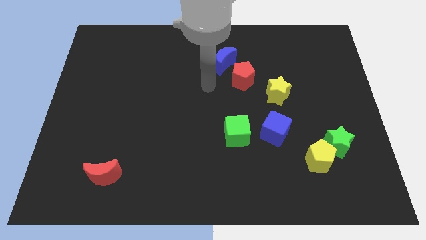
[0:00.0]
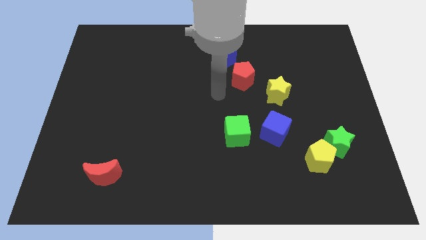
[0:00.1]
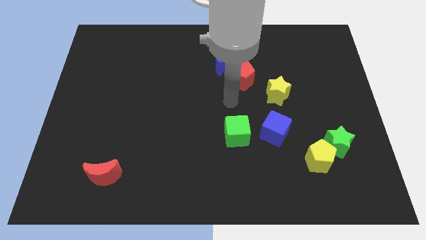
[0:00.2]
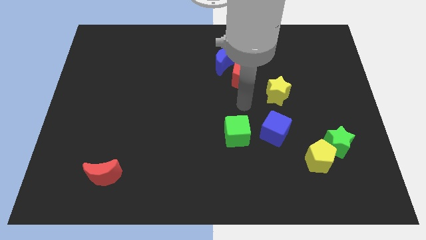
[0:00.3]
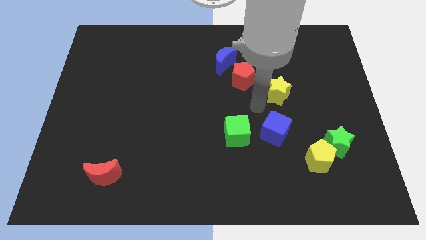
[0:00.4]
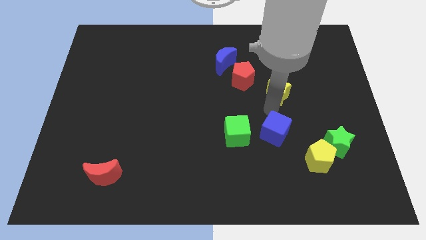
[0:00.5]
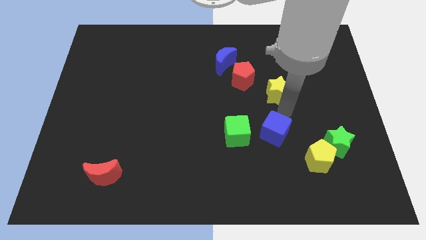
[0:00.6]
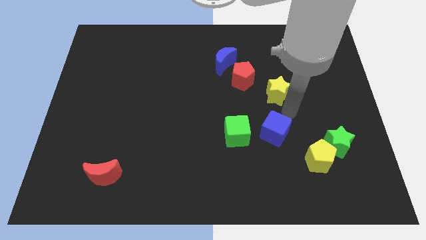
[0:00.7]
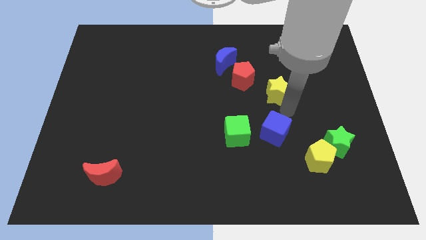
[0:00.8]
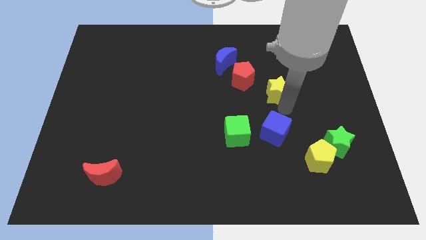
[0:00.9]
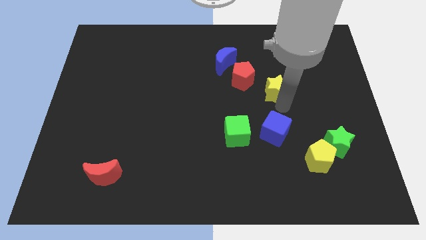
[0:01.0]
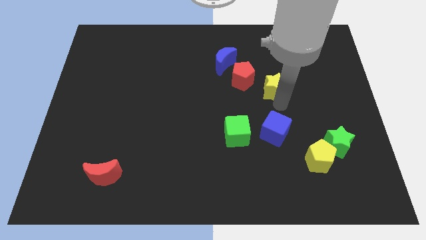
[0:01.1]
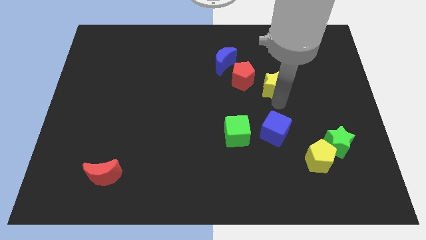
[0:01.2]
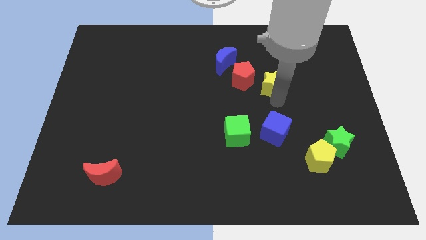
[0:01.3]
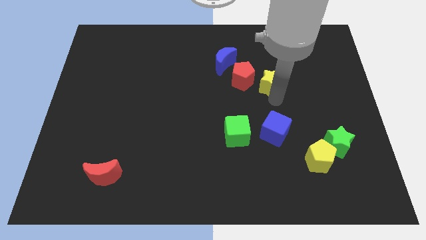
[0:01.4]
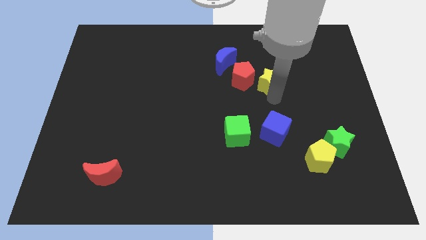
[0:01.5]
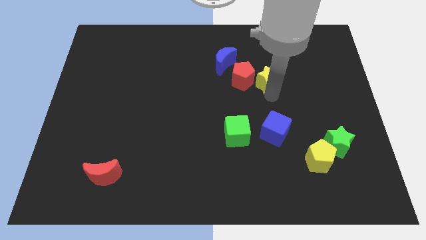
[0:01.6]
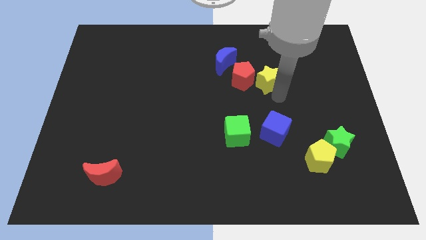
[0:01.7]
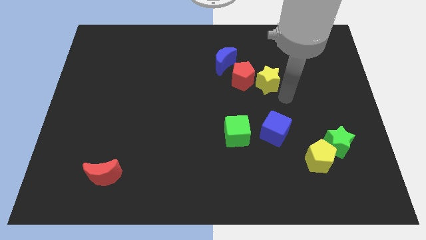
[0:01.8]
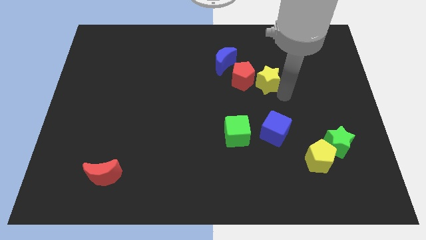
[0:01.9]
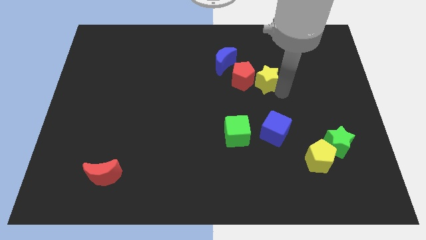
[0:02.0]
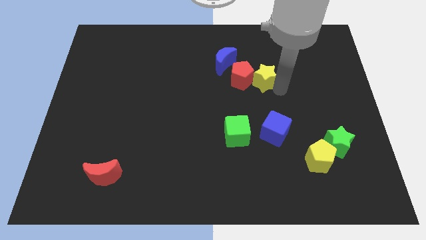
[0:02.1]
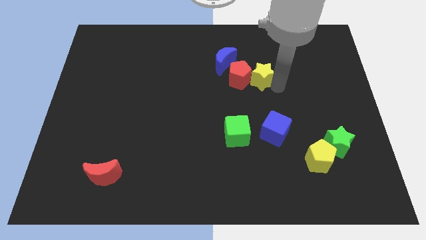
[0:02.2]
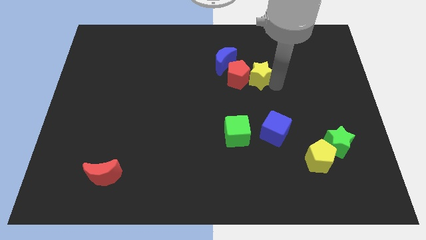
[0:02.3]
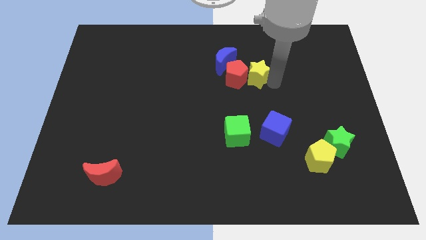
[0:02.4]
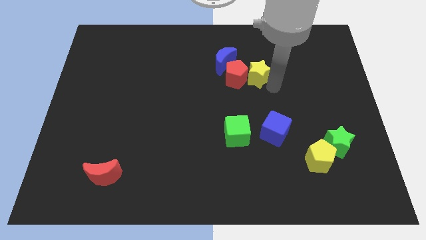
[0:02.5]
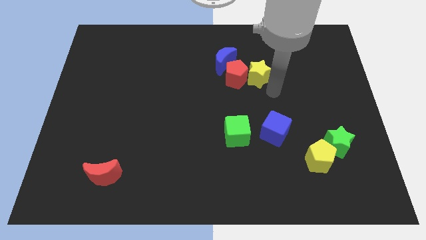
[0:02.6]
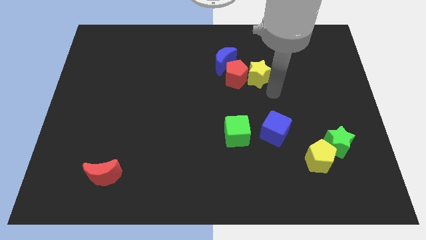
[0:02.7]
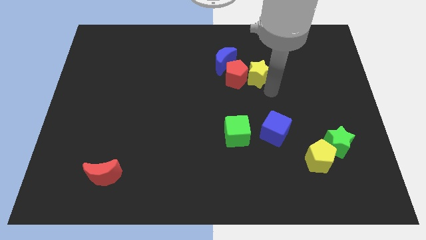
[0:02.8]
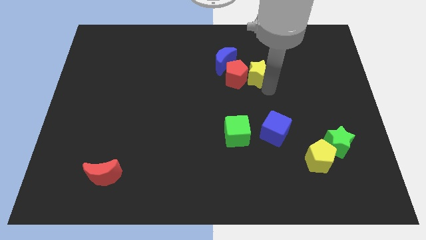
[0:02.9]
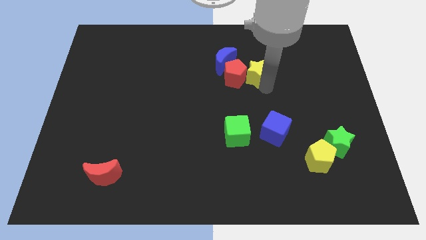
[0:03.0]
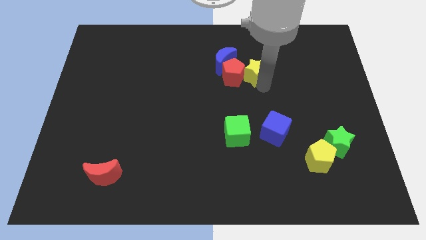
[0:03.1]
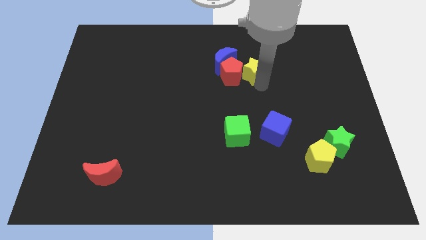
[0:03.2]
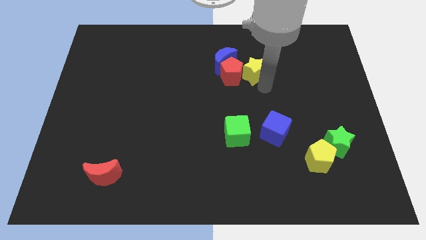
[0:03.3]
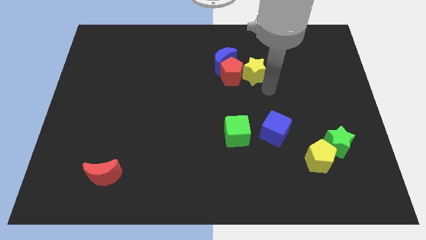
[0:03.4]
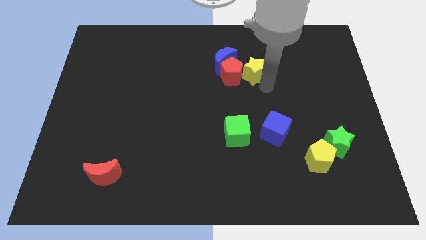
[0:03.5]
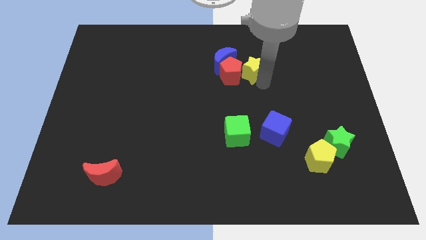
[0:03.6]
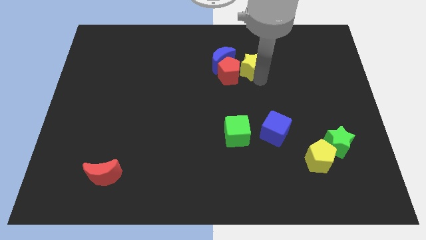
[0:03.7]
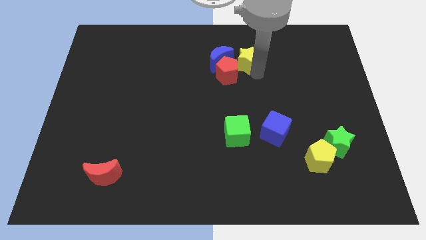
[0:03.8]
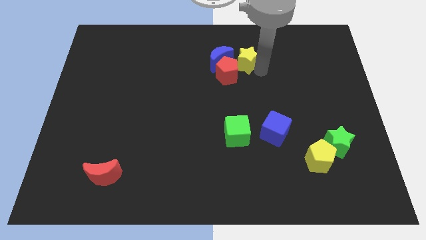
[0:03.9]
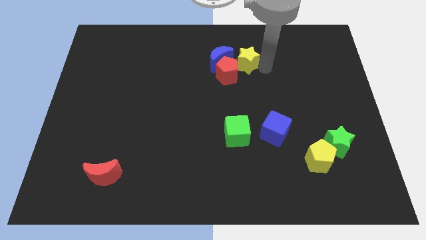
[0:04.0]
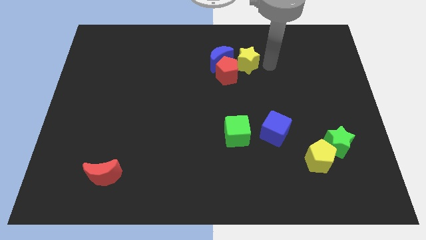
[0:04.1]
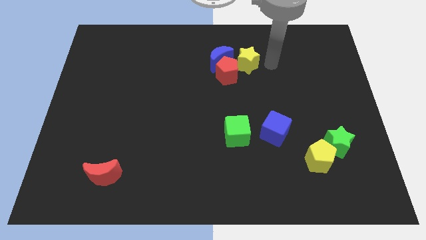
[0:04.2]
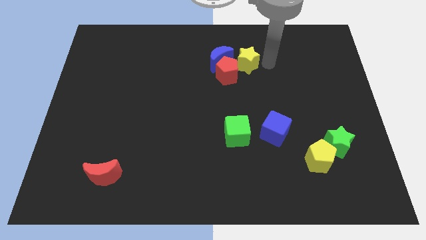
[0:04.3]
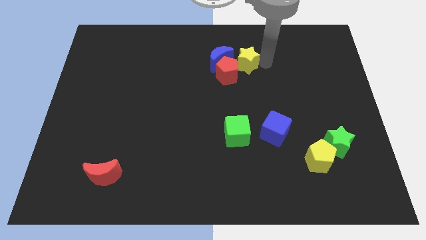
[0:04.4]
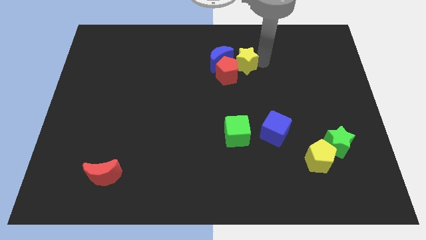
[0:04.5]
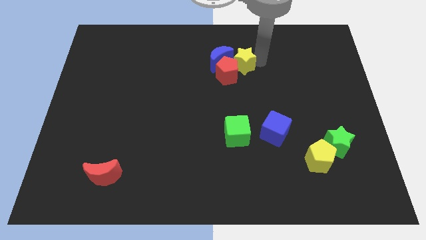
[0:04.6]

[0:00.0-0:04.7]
move the yellow star close to the blue moon

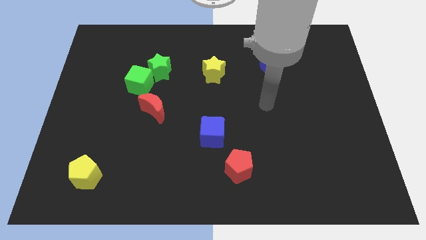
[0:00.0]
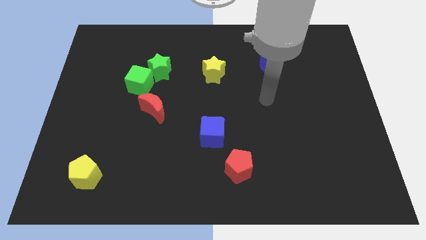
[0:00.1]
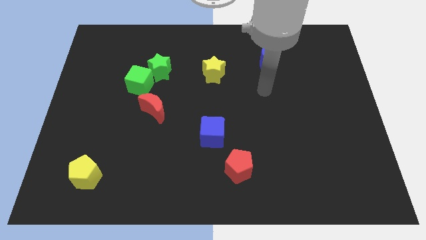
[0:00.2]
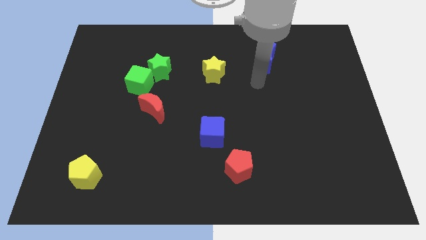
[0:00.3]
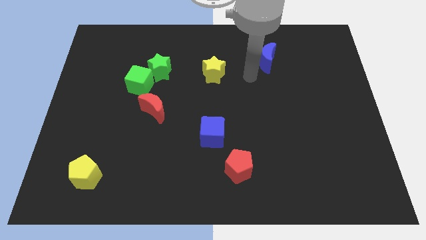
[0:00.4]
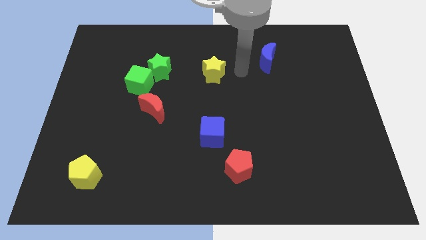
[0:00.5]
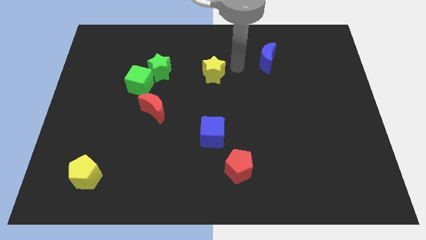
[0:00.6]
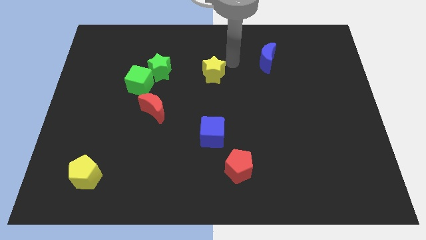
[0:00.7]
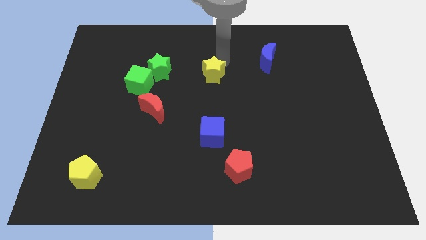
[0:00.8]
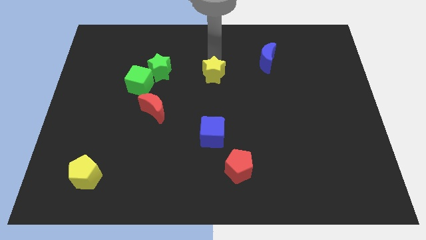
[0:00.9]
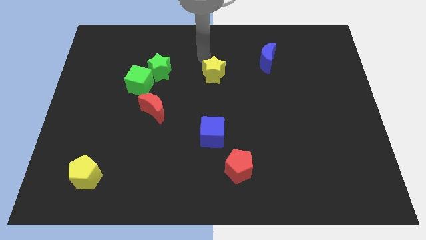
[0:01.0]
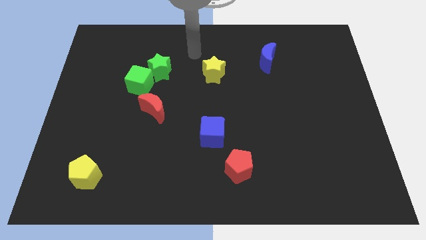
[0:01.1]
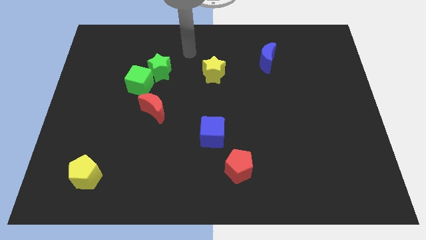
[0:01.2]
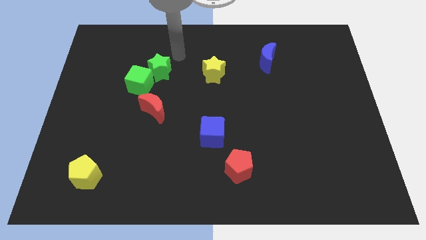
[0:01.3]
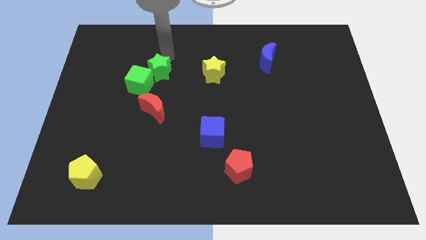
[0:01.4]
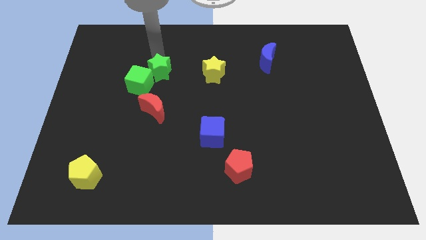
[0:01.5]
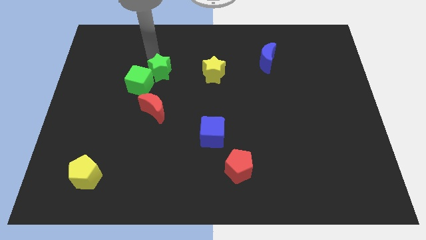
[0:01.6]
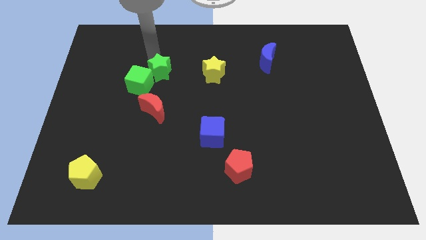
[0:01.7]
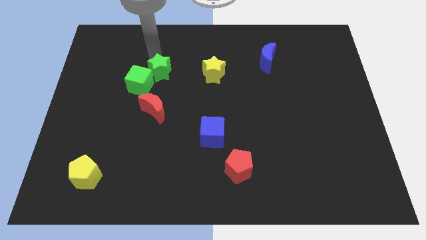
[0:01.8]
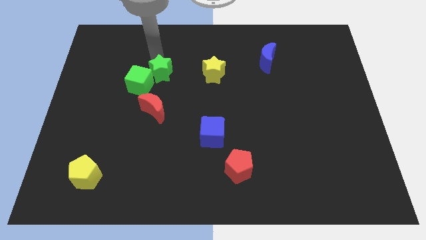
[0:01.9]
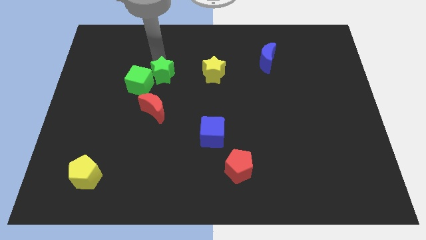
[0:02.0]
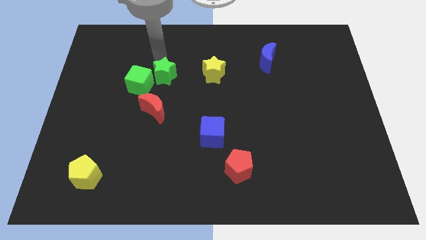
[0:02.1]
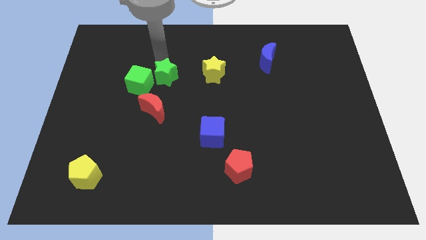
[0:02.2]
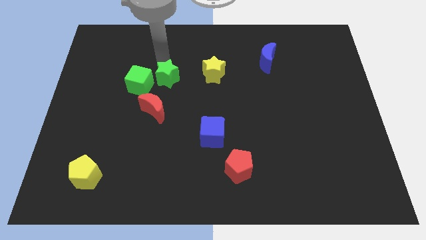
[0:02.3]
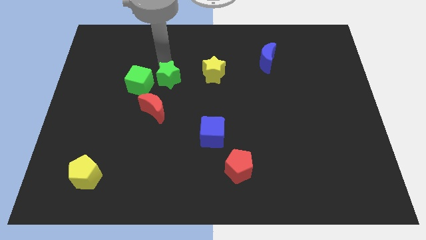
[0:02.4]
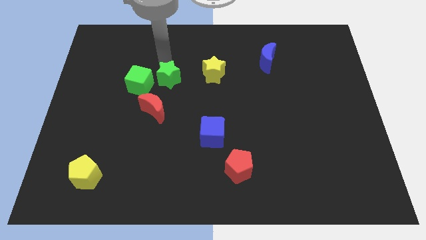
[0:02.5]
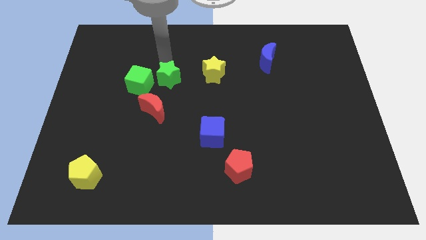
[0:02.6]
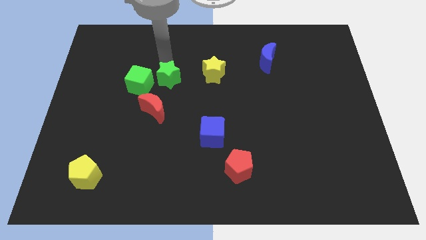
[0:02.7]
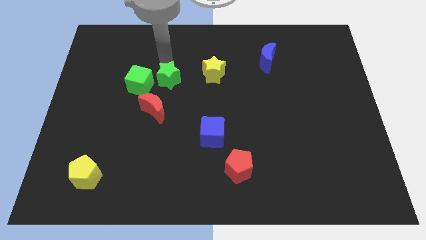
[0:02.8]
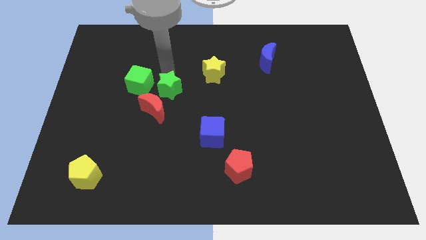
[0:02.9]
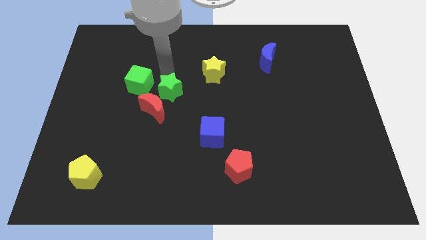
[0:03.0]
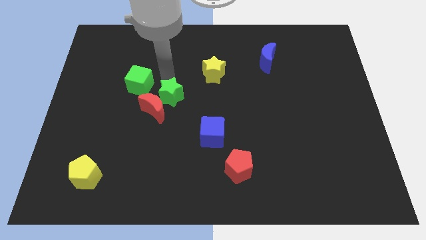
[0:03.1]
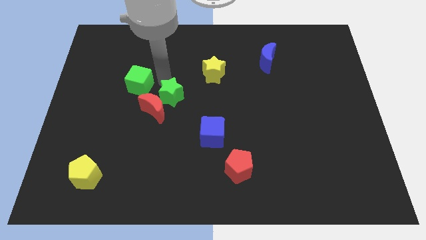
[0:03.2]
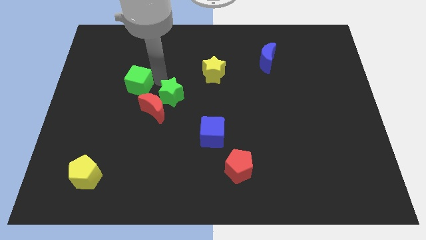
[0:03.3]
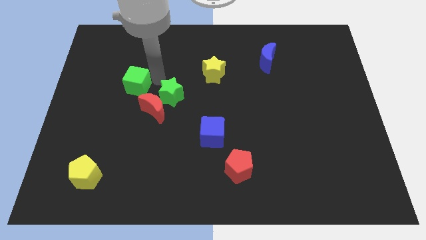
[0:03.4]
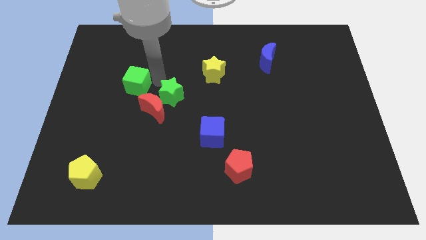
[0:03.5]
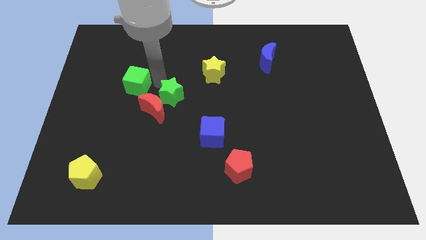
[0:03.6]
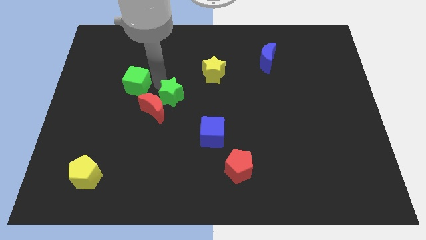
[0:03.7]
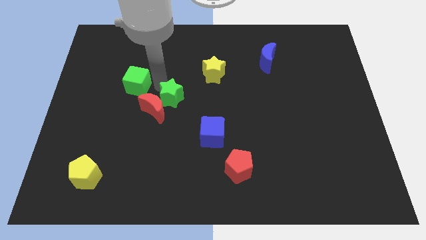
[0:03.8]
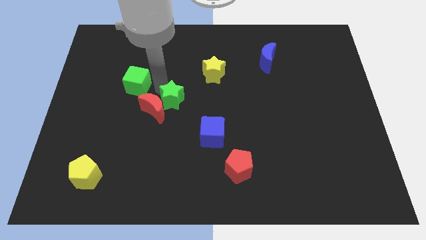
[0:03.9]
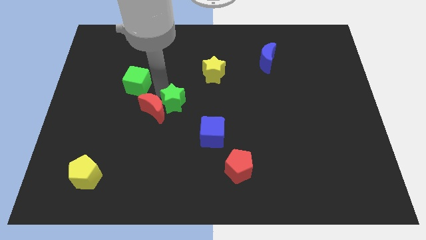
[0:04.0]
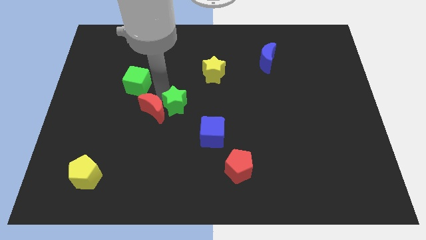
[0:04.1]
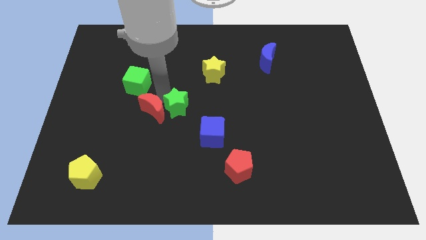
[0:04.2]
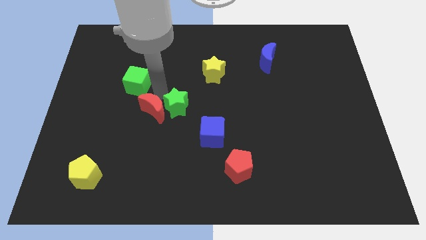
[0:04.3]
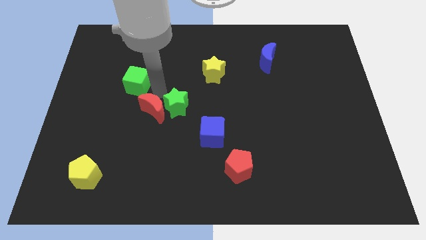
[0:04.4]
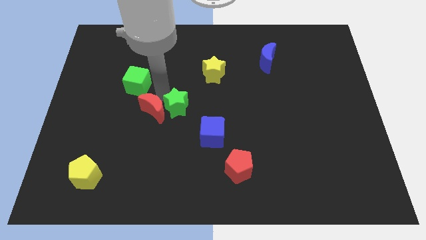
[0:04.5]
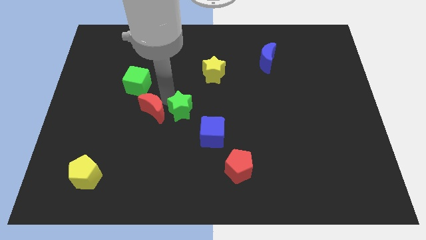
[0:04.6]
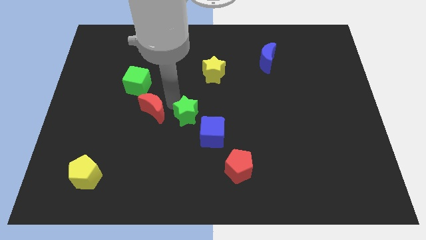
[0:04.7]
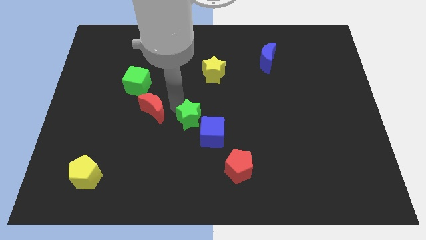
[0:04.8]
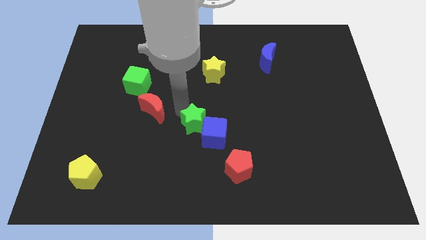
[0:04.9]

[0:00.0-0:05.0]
put the green star to the blue cube
